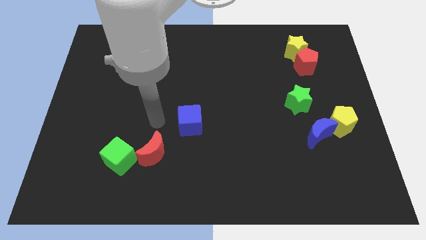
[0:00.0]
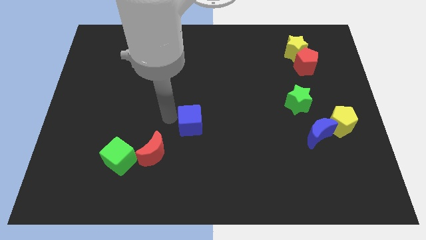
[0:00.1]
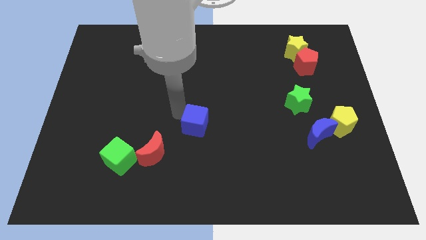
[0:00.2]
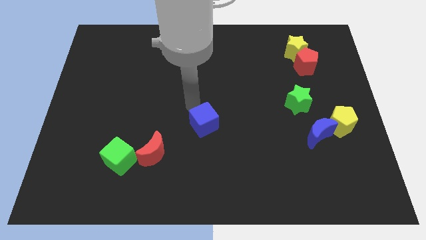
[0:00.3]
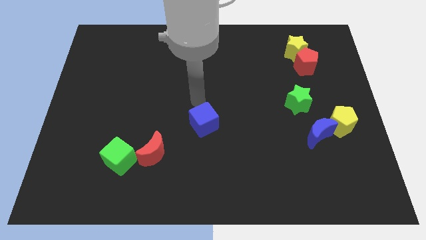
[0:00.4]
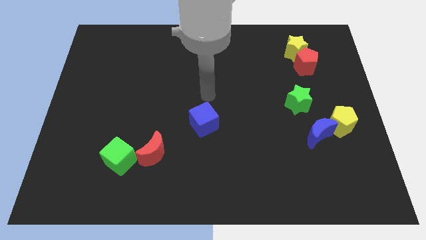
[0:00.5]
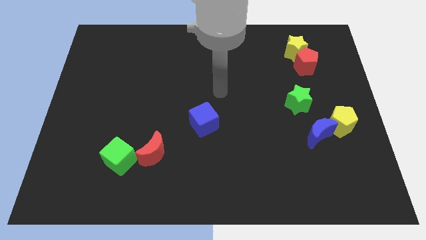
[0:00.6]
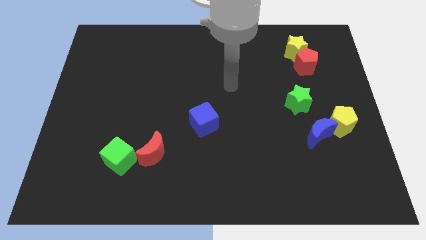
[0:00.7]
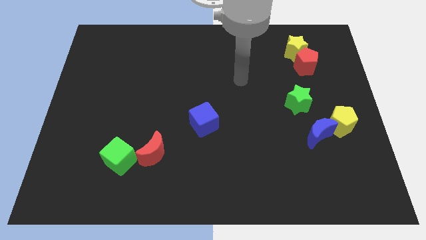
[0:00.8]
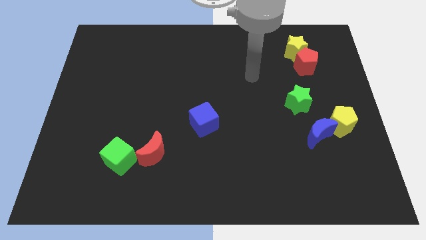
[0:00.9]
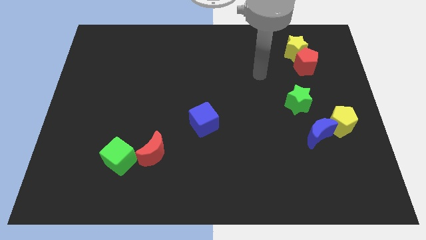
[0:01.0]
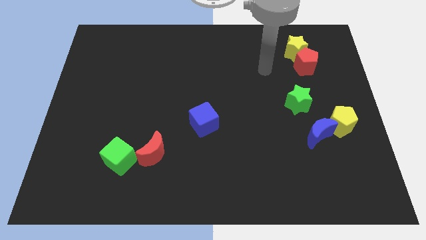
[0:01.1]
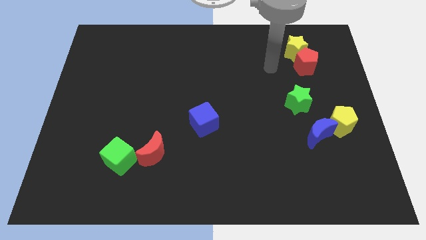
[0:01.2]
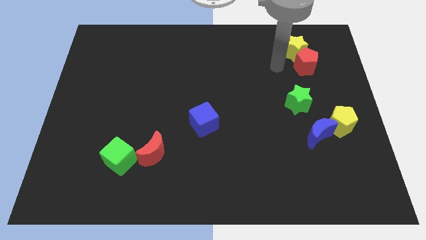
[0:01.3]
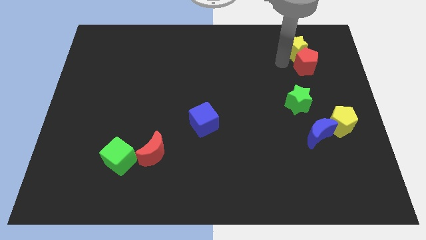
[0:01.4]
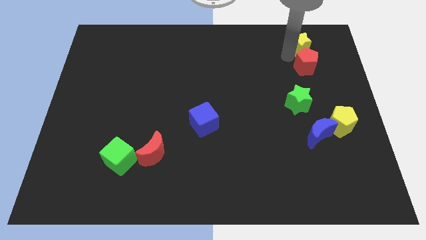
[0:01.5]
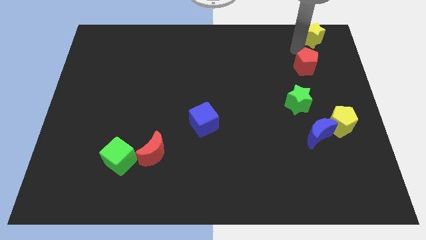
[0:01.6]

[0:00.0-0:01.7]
pull the red pentagon apart from the yellow star

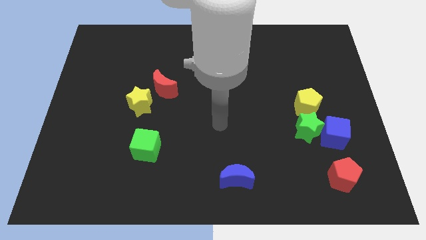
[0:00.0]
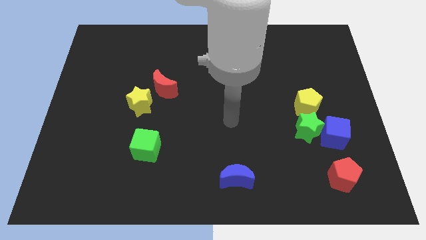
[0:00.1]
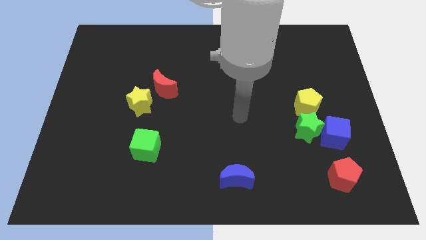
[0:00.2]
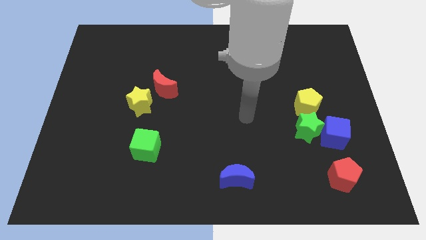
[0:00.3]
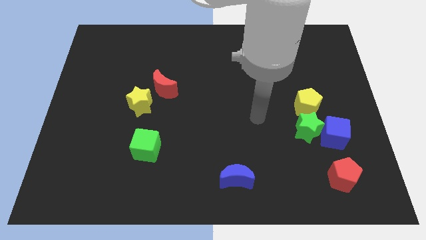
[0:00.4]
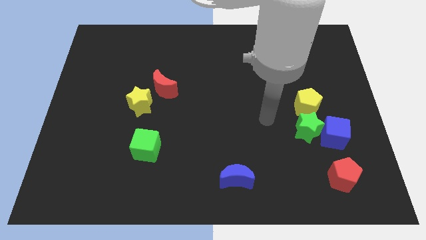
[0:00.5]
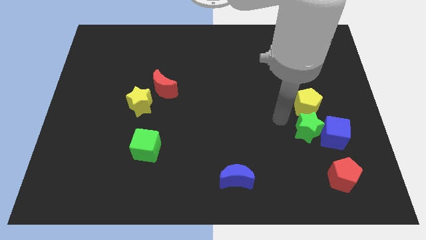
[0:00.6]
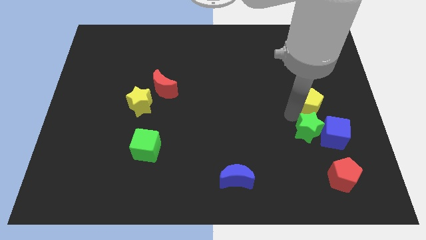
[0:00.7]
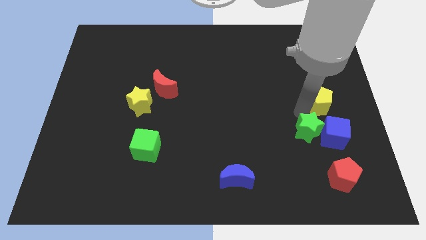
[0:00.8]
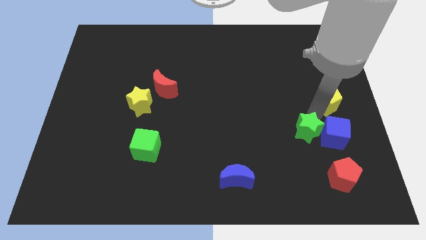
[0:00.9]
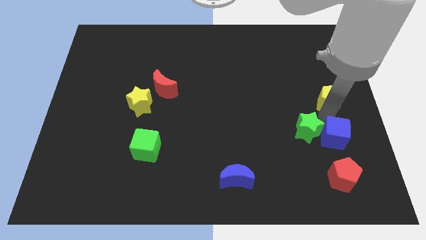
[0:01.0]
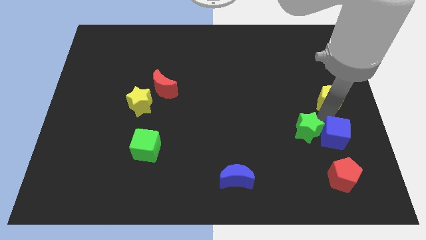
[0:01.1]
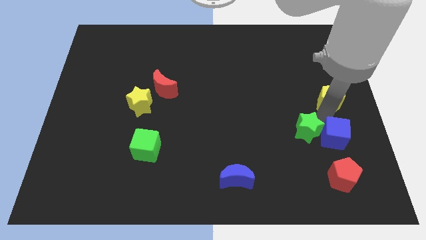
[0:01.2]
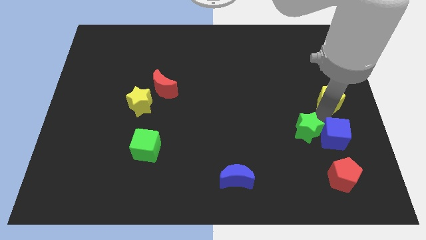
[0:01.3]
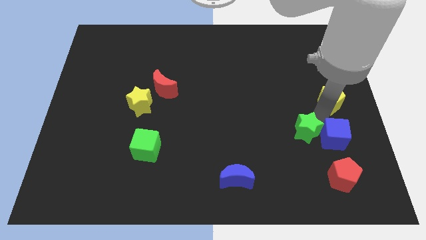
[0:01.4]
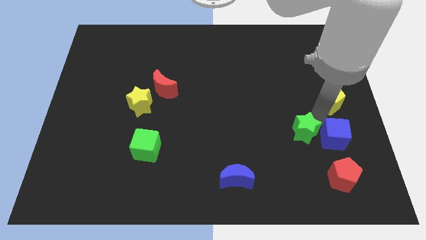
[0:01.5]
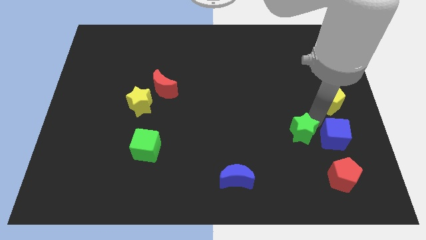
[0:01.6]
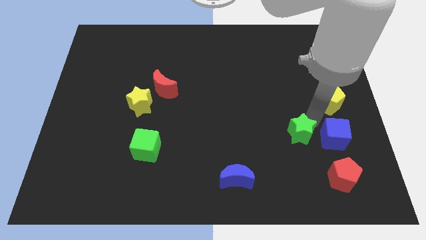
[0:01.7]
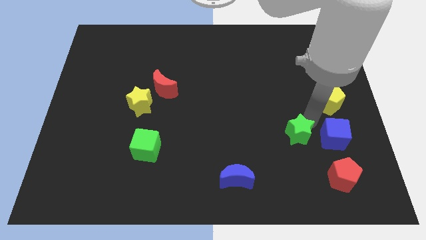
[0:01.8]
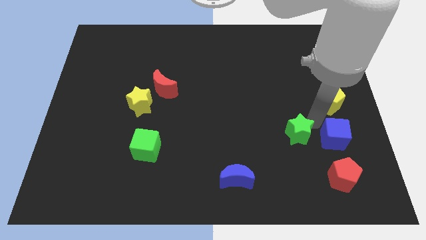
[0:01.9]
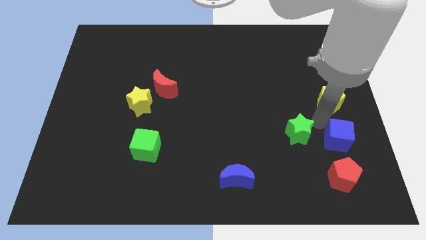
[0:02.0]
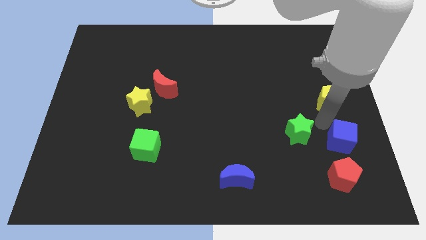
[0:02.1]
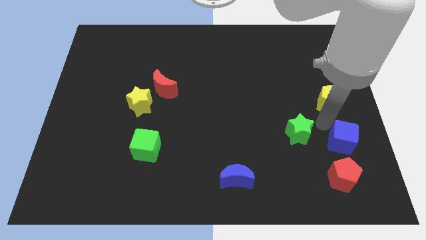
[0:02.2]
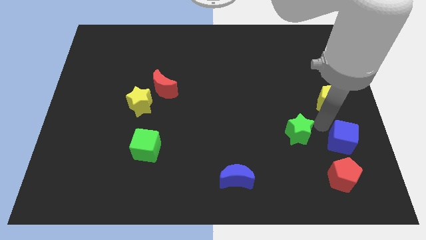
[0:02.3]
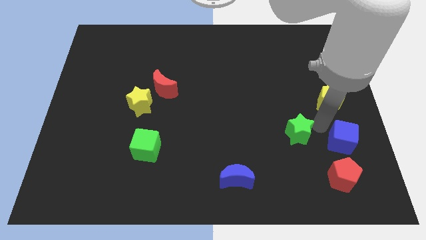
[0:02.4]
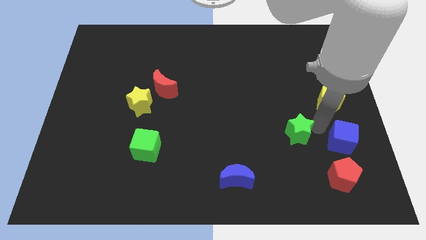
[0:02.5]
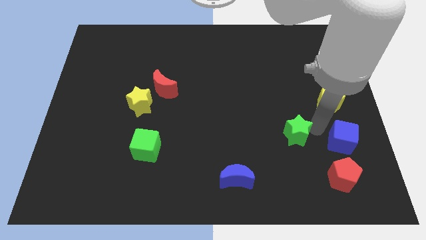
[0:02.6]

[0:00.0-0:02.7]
pull the green star apart from the blue cube and yellow pentagon

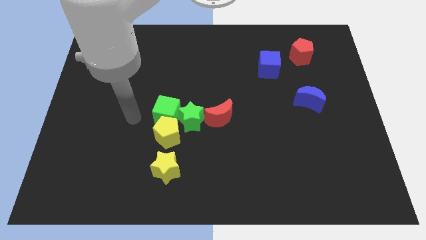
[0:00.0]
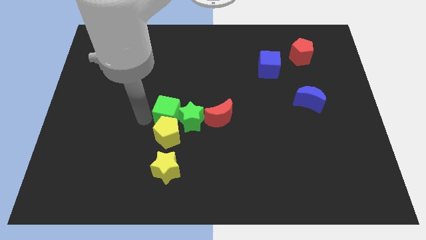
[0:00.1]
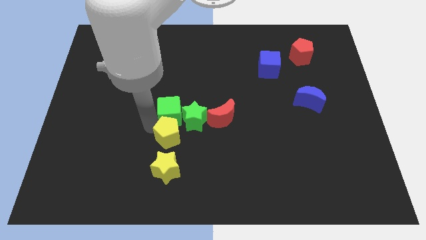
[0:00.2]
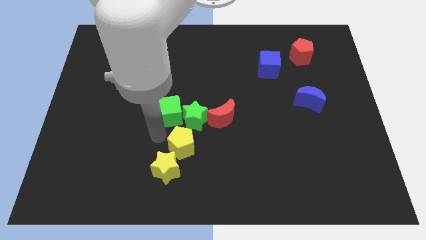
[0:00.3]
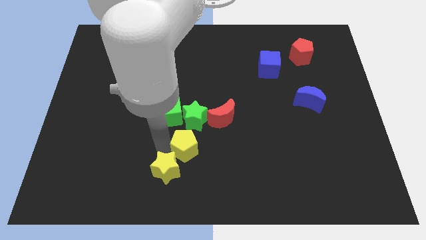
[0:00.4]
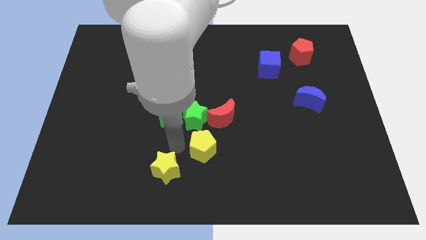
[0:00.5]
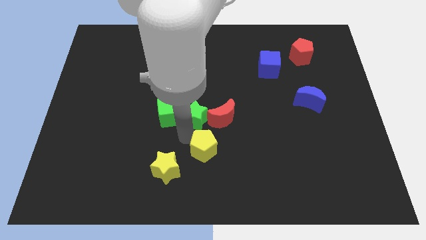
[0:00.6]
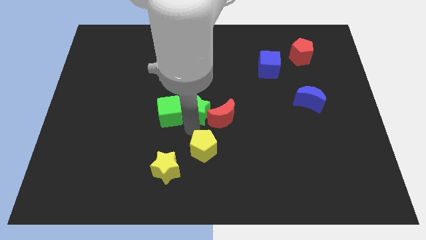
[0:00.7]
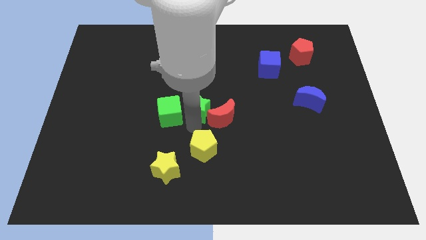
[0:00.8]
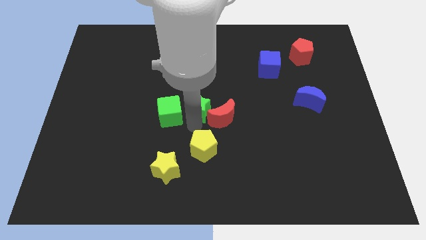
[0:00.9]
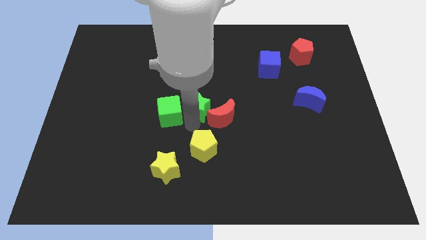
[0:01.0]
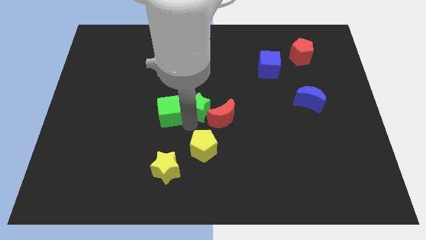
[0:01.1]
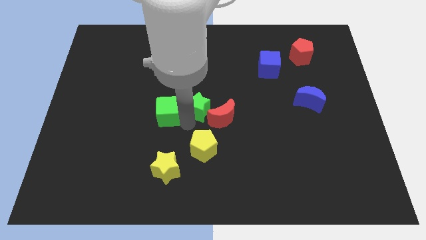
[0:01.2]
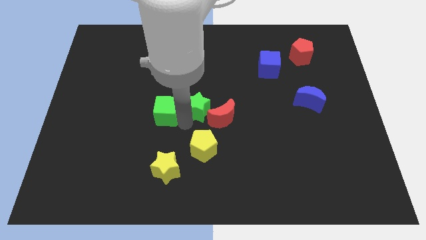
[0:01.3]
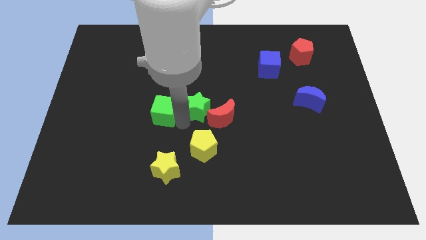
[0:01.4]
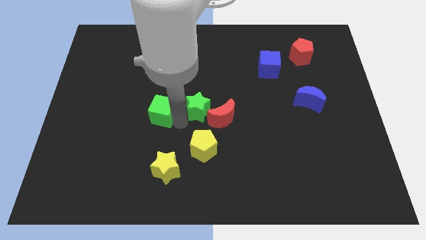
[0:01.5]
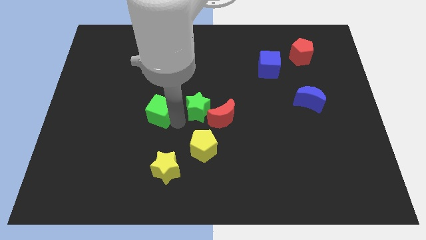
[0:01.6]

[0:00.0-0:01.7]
separate the green cube from the yellow pentagon and green star

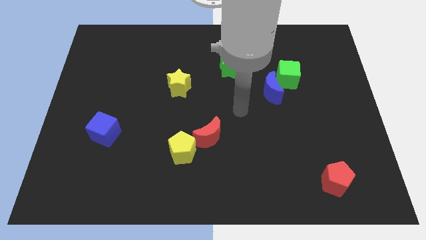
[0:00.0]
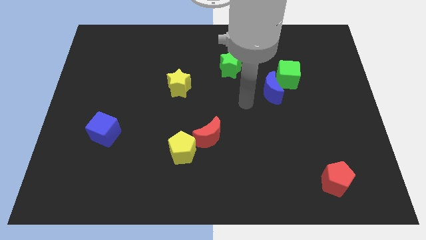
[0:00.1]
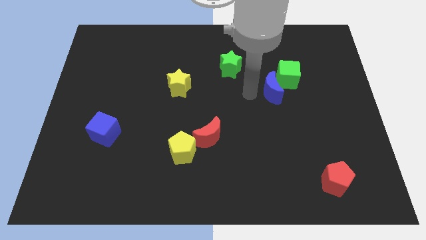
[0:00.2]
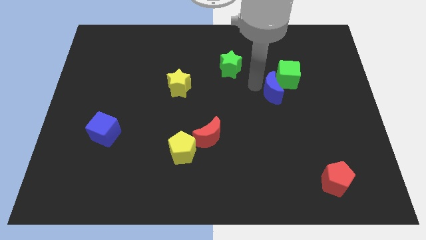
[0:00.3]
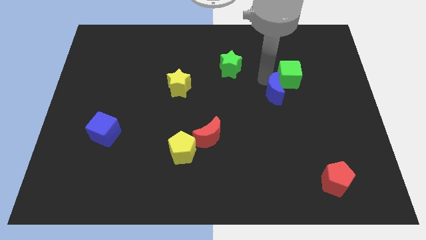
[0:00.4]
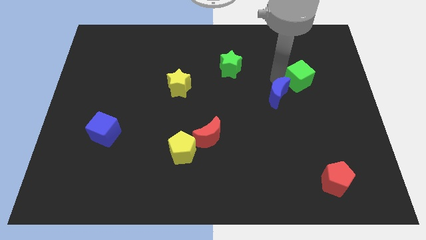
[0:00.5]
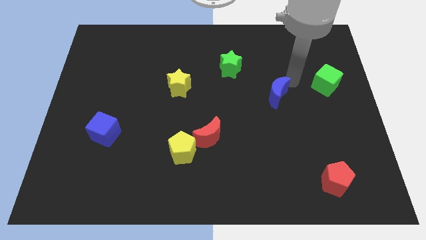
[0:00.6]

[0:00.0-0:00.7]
move the blue moon away from the green cube

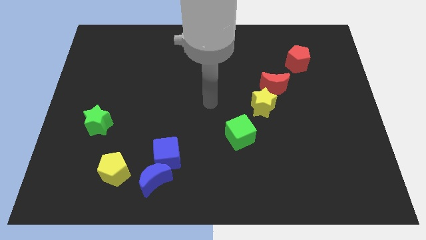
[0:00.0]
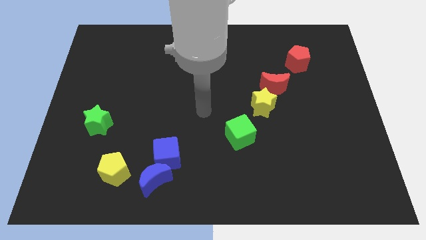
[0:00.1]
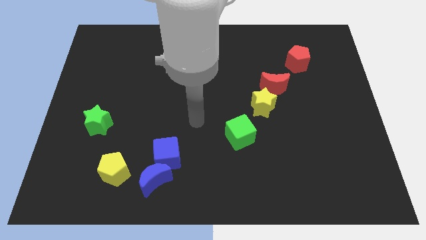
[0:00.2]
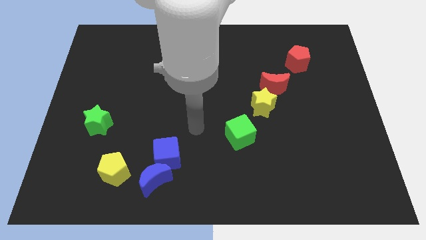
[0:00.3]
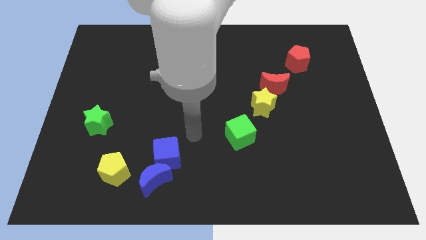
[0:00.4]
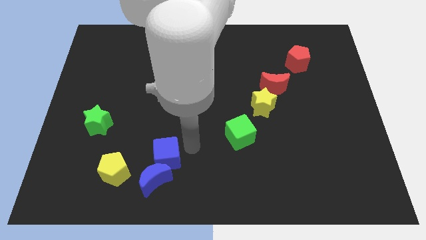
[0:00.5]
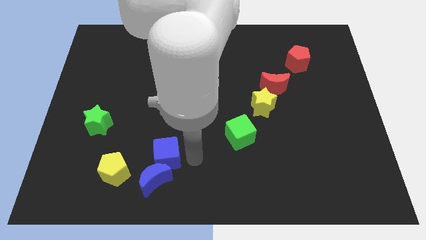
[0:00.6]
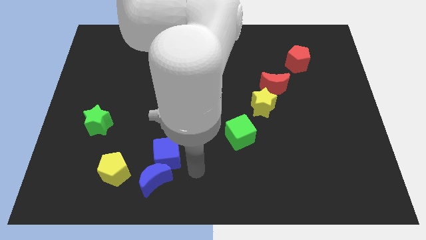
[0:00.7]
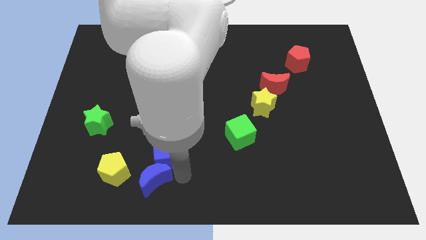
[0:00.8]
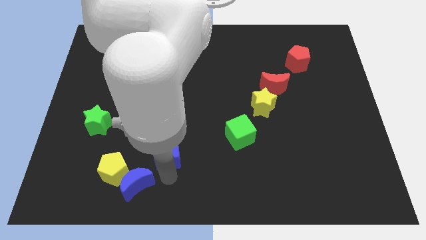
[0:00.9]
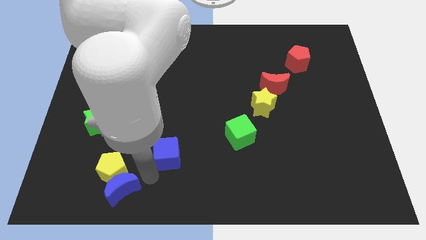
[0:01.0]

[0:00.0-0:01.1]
pull the blue cube apart from the blue moon

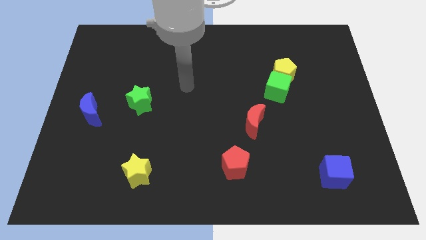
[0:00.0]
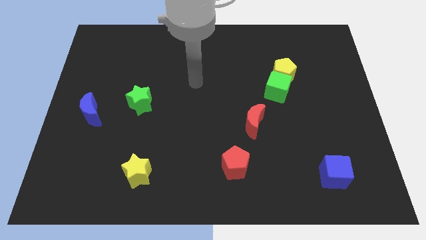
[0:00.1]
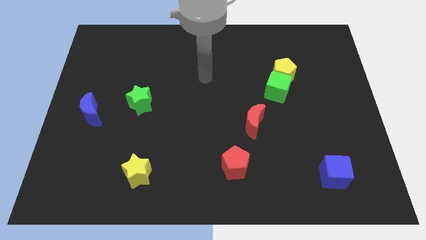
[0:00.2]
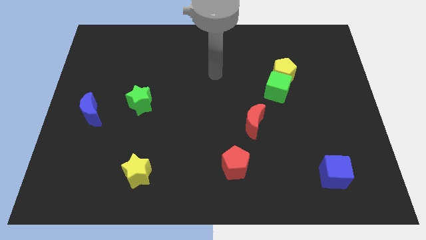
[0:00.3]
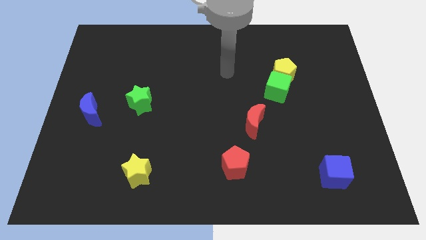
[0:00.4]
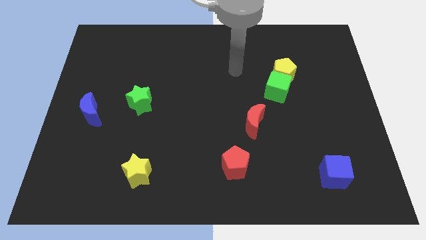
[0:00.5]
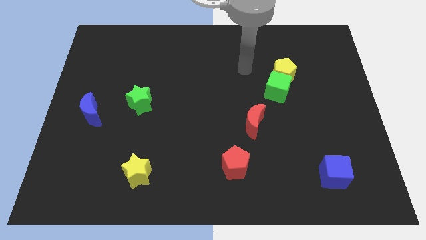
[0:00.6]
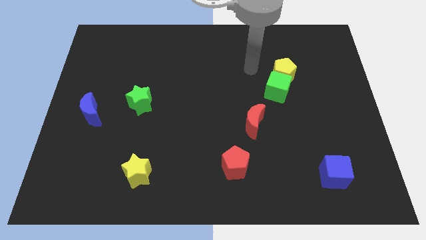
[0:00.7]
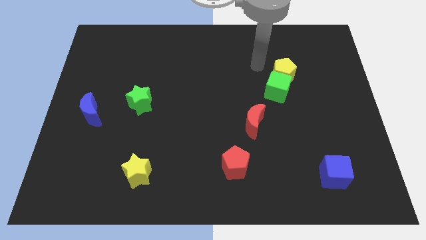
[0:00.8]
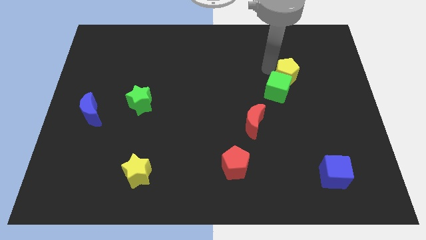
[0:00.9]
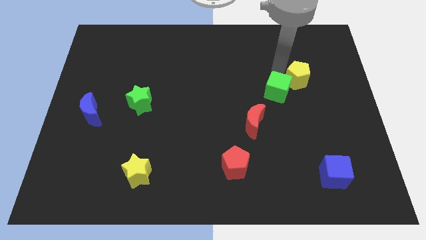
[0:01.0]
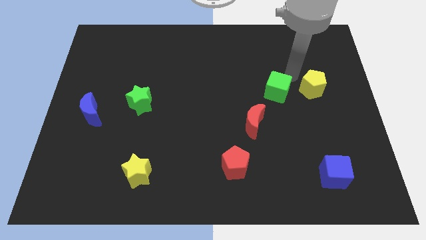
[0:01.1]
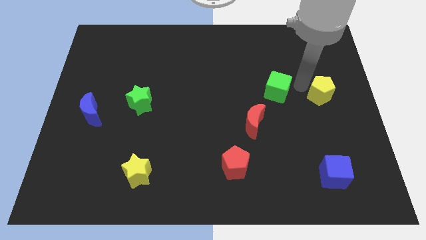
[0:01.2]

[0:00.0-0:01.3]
pull the green cube apart from the yellow pentagon
